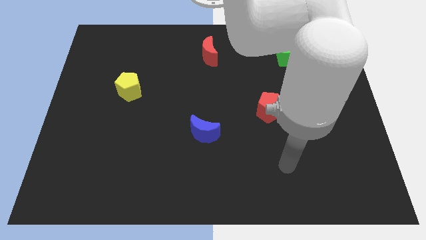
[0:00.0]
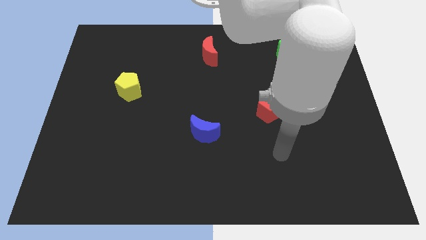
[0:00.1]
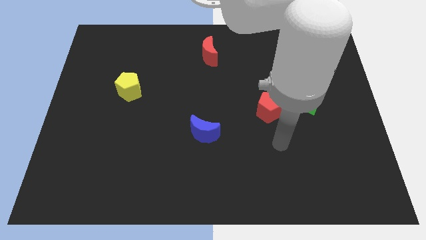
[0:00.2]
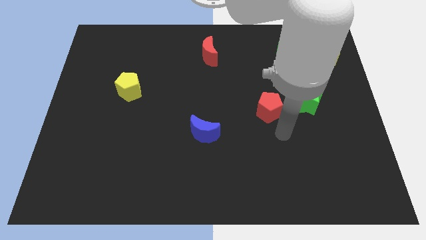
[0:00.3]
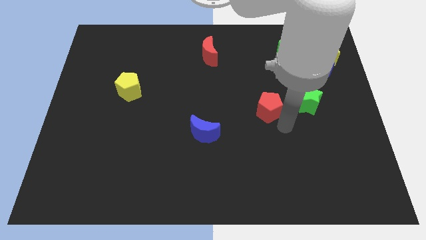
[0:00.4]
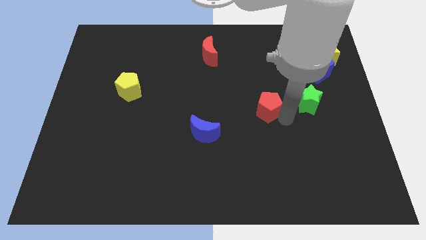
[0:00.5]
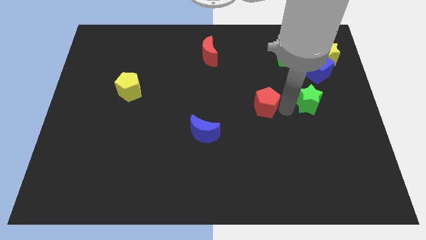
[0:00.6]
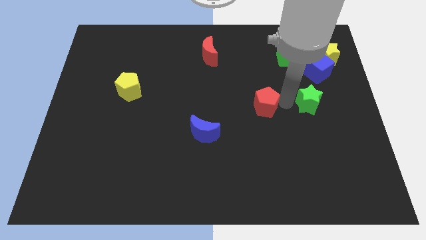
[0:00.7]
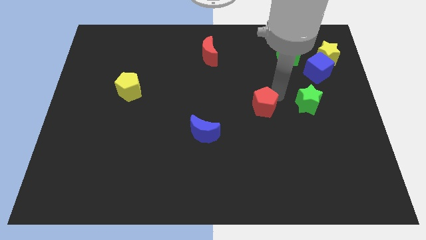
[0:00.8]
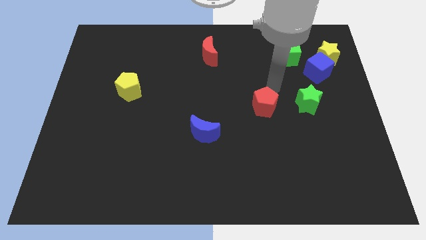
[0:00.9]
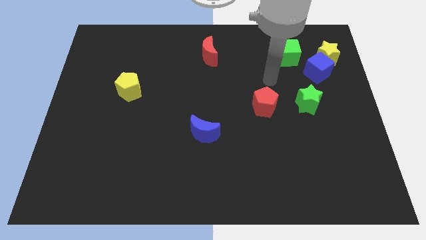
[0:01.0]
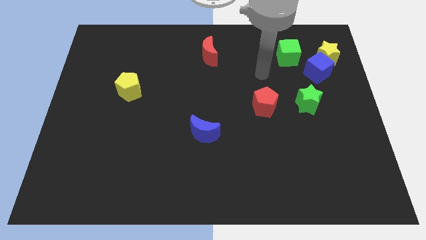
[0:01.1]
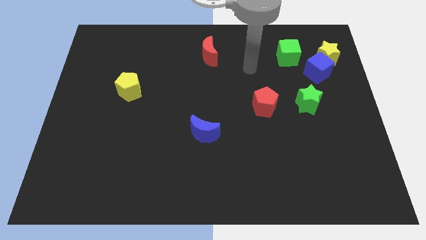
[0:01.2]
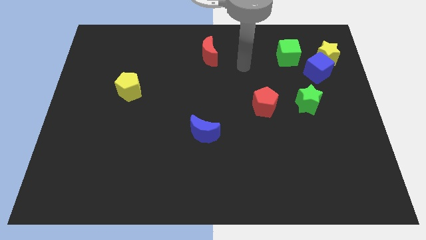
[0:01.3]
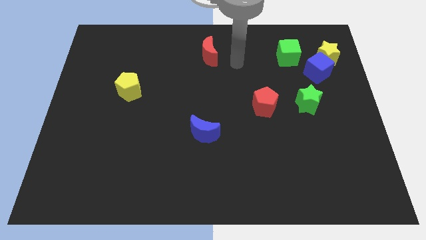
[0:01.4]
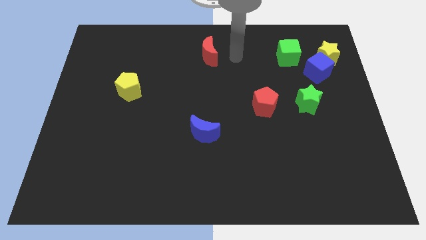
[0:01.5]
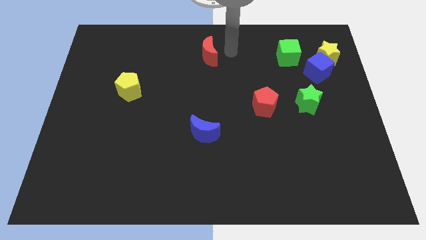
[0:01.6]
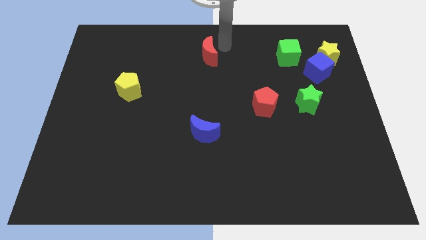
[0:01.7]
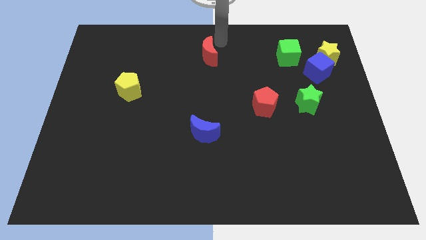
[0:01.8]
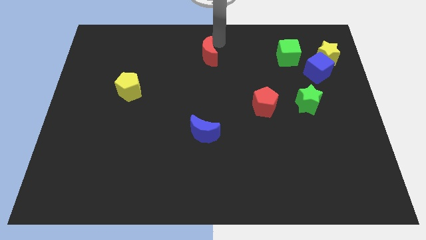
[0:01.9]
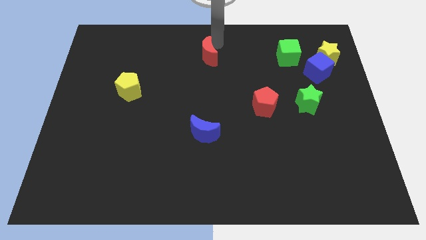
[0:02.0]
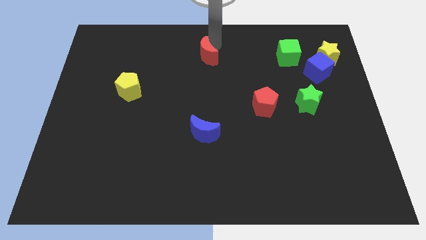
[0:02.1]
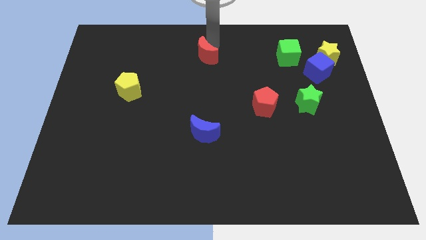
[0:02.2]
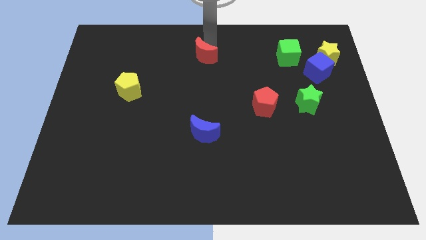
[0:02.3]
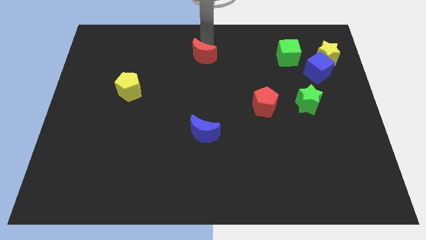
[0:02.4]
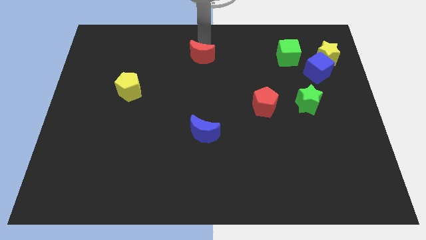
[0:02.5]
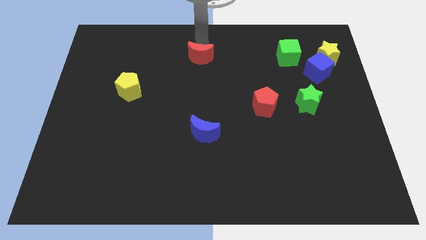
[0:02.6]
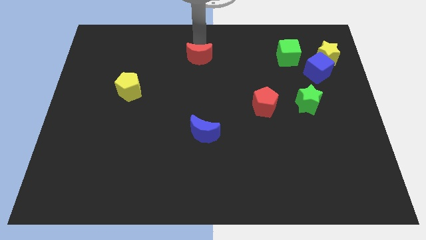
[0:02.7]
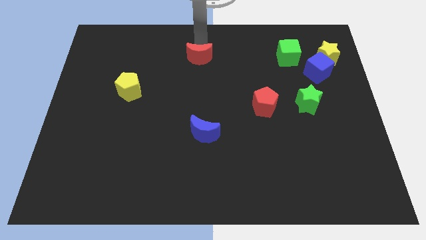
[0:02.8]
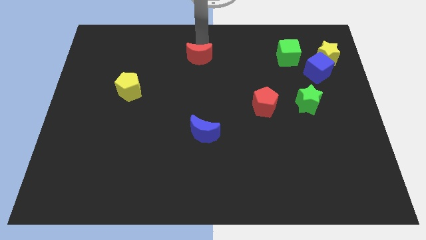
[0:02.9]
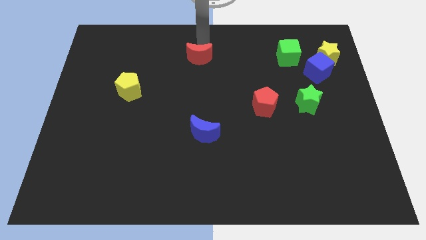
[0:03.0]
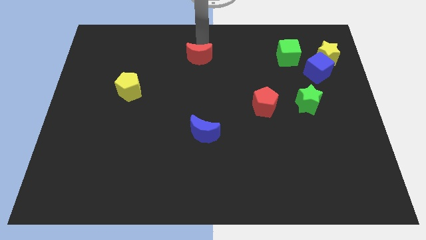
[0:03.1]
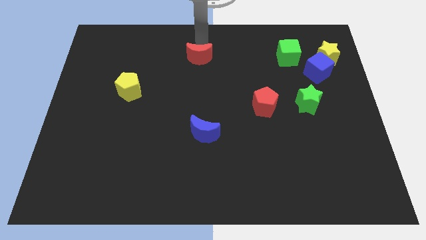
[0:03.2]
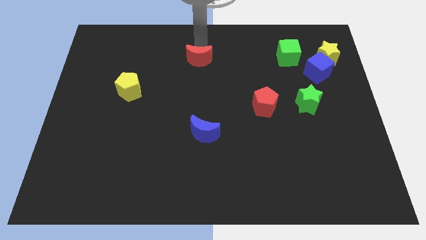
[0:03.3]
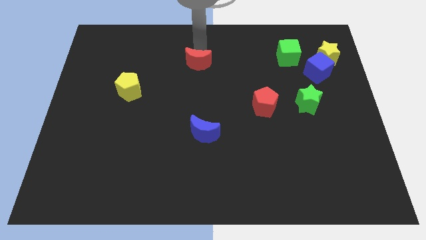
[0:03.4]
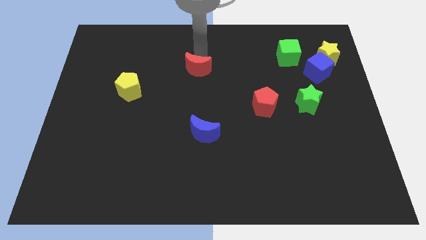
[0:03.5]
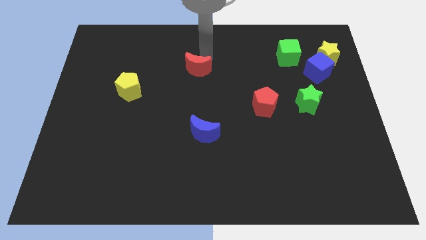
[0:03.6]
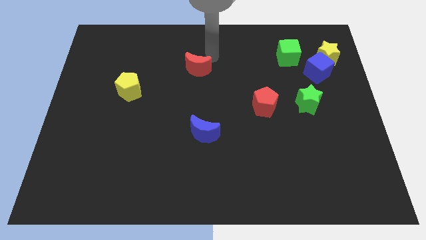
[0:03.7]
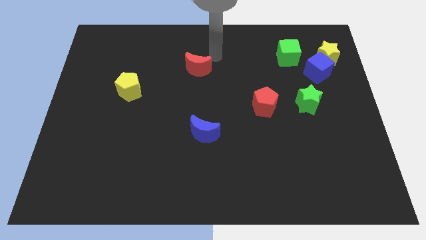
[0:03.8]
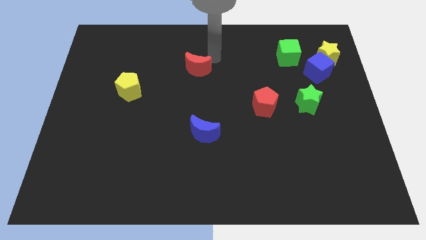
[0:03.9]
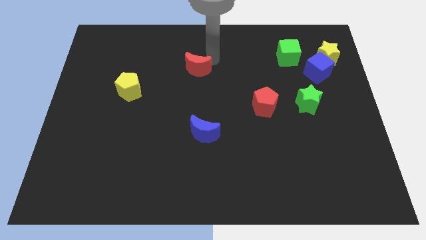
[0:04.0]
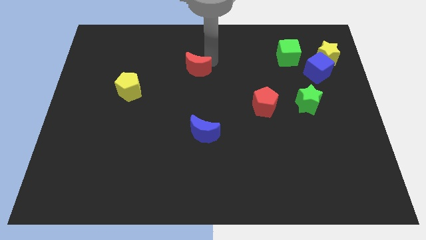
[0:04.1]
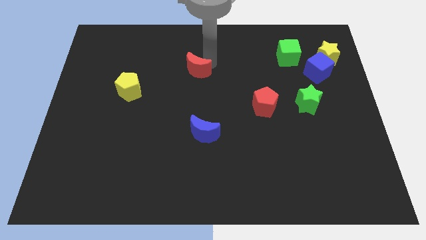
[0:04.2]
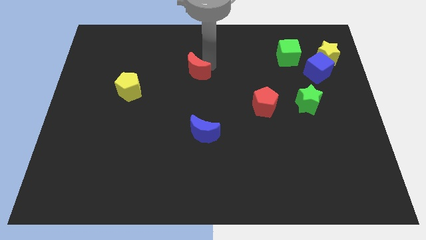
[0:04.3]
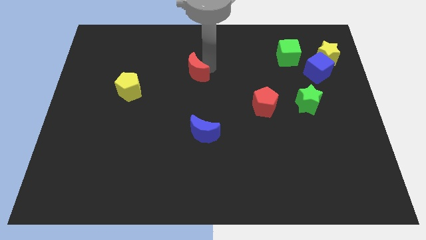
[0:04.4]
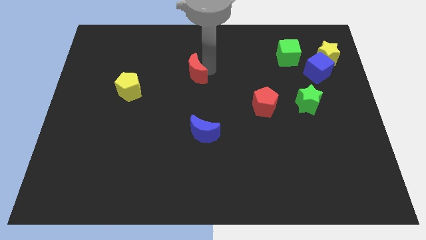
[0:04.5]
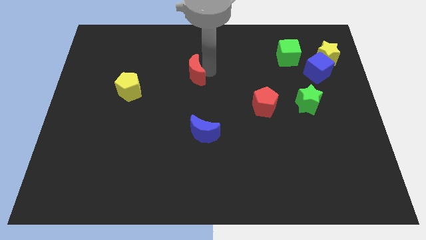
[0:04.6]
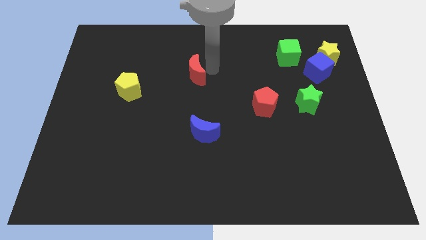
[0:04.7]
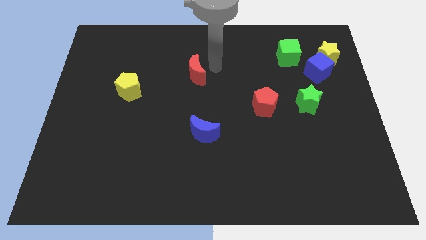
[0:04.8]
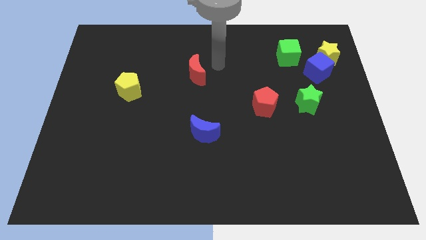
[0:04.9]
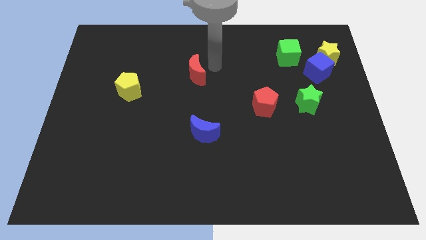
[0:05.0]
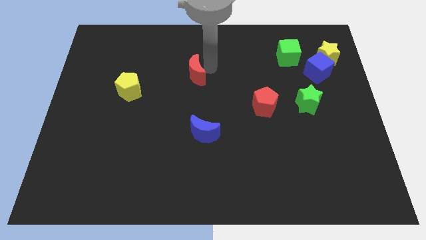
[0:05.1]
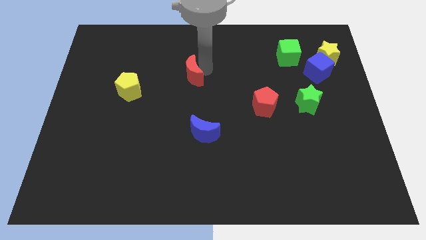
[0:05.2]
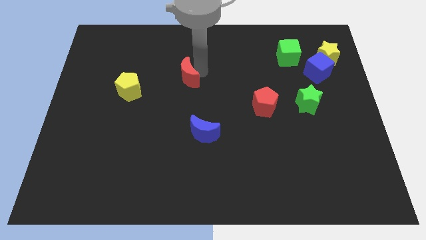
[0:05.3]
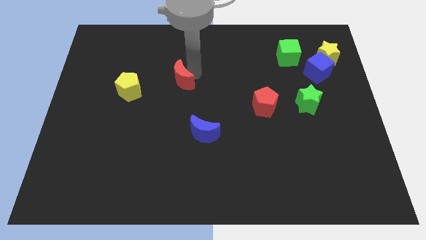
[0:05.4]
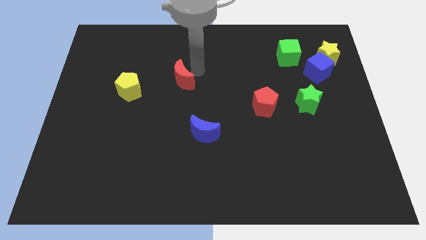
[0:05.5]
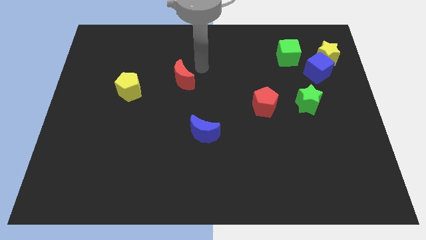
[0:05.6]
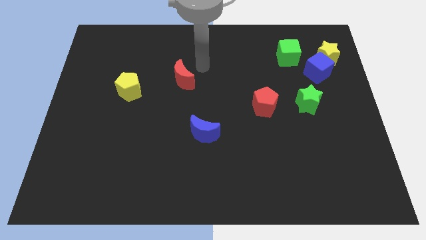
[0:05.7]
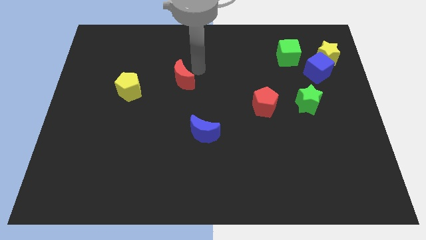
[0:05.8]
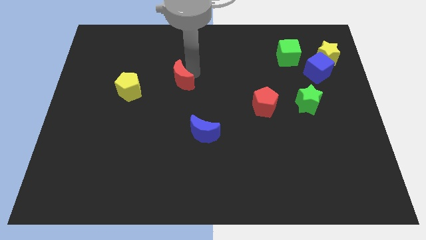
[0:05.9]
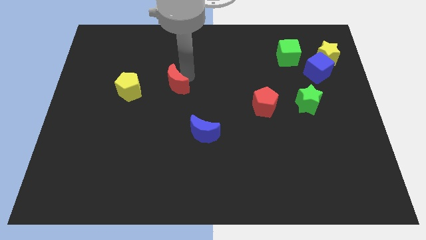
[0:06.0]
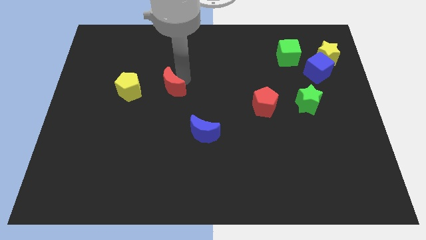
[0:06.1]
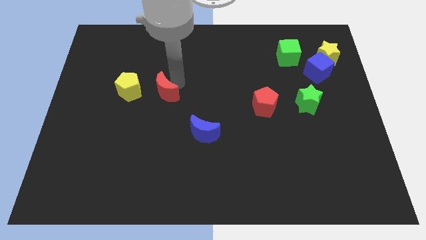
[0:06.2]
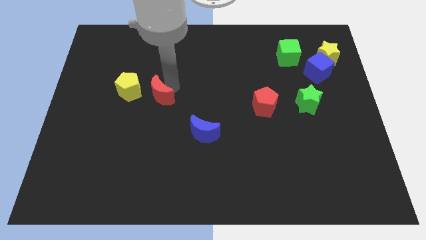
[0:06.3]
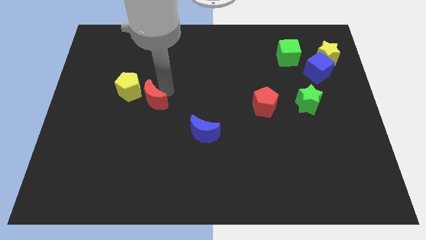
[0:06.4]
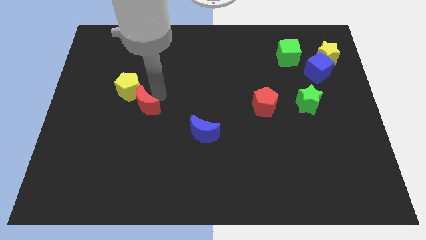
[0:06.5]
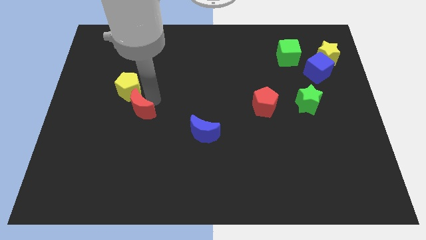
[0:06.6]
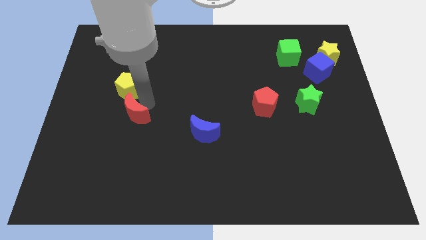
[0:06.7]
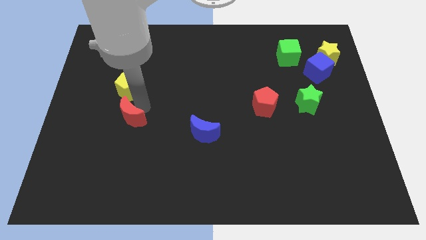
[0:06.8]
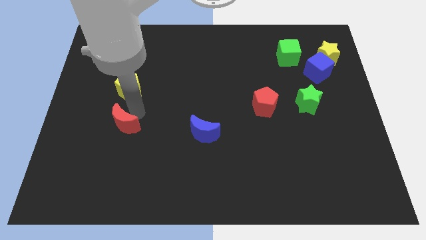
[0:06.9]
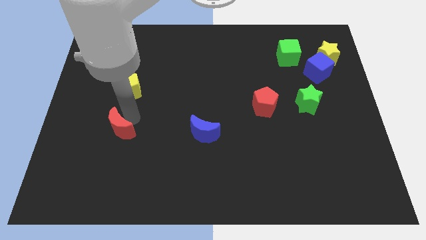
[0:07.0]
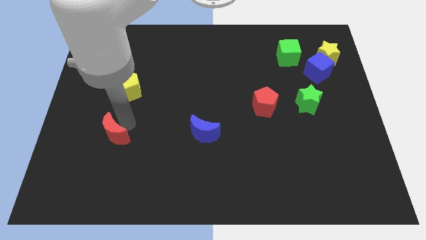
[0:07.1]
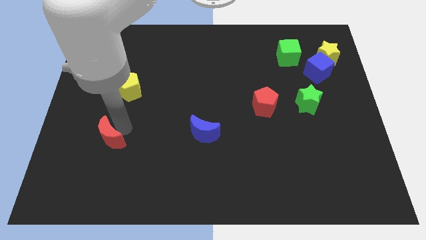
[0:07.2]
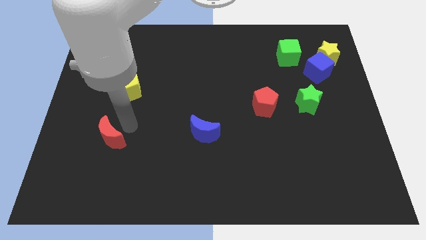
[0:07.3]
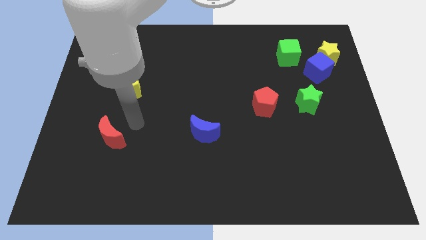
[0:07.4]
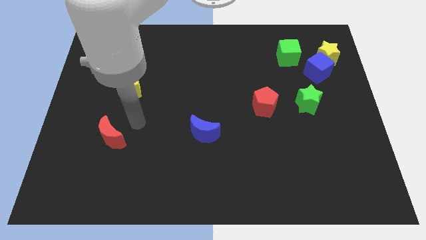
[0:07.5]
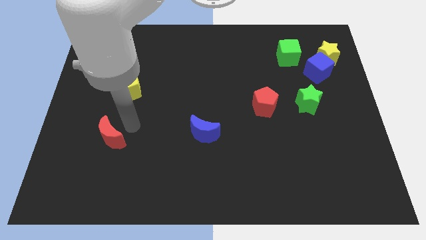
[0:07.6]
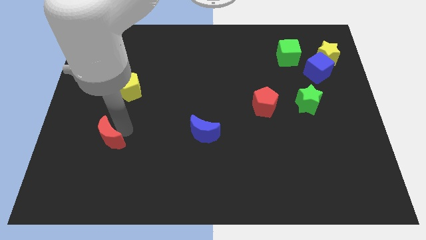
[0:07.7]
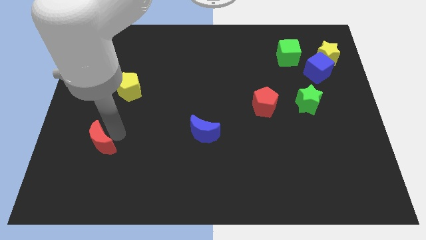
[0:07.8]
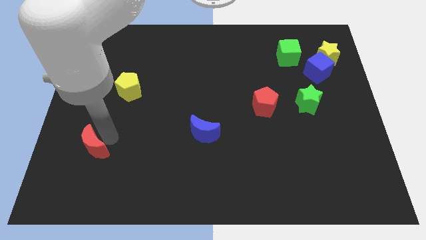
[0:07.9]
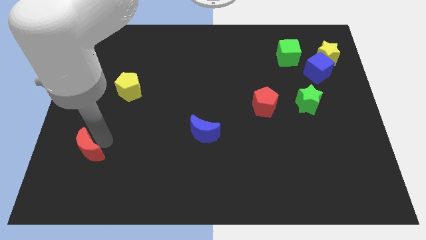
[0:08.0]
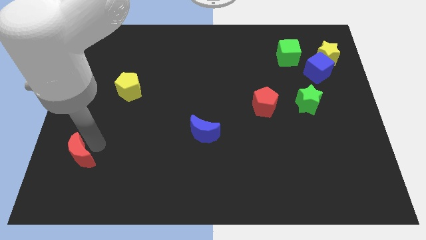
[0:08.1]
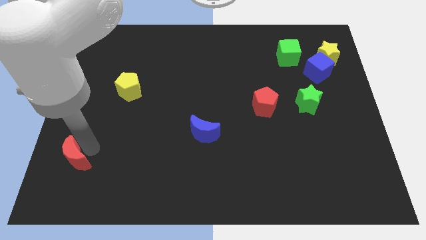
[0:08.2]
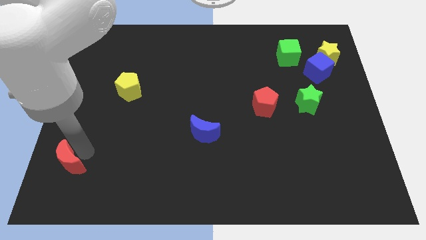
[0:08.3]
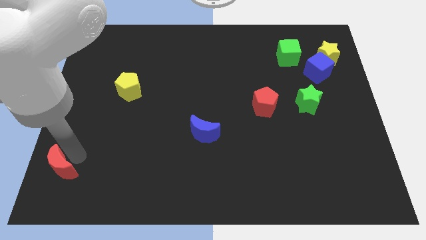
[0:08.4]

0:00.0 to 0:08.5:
push the red moon to the bottom left
